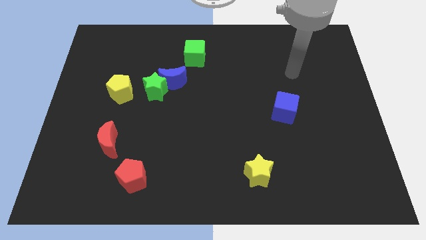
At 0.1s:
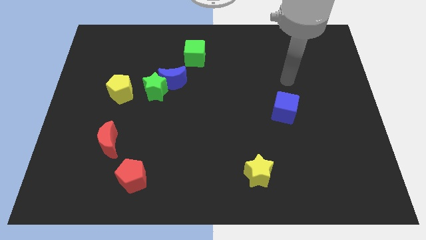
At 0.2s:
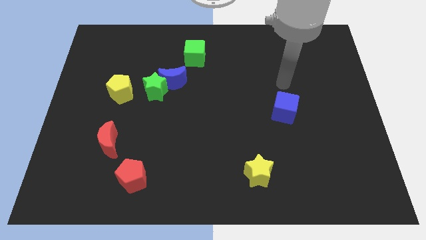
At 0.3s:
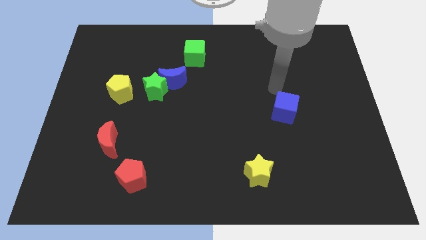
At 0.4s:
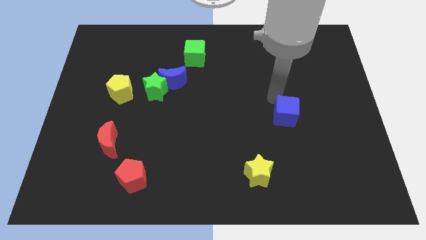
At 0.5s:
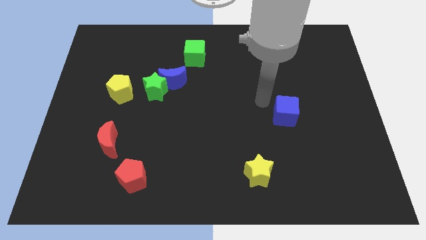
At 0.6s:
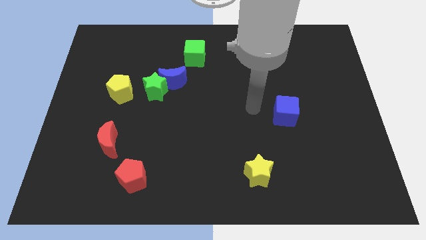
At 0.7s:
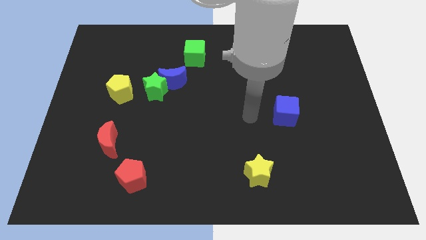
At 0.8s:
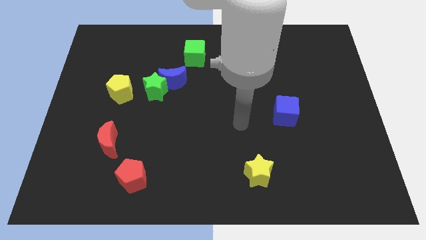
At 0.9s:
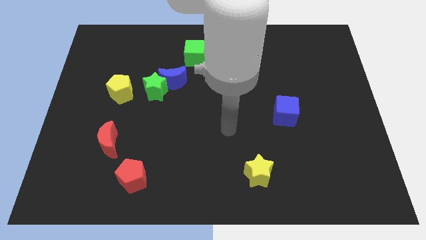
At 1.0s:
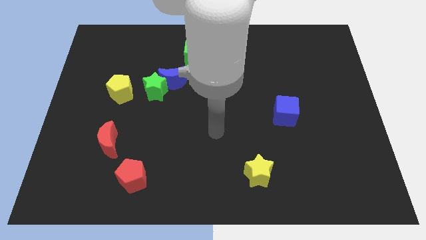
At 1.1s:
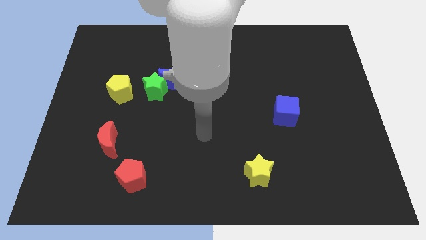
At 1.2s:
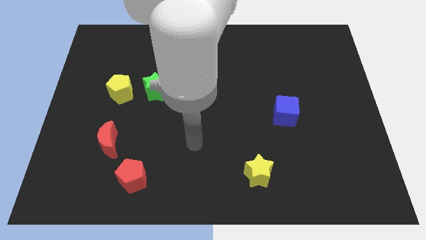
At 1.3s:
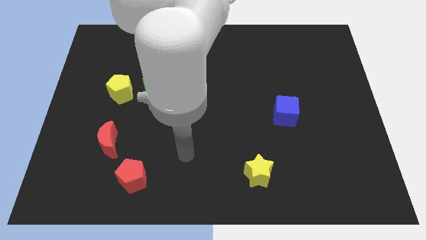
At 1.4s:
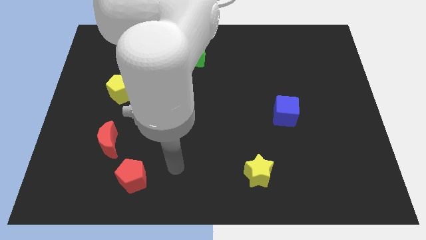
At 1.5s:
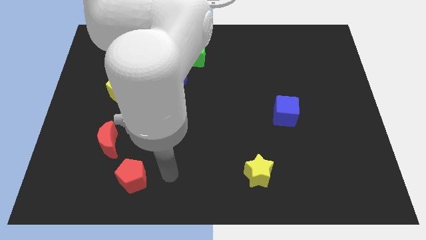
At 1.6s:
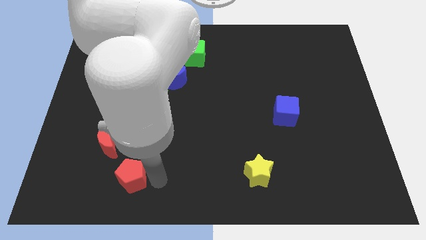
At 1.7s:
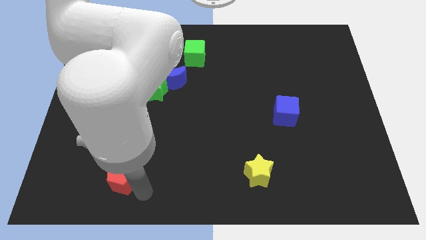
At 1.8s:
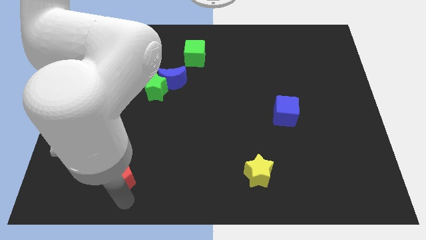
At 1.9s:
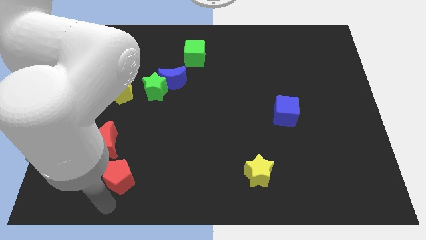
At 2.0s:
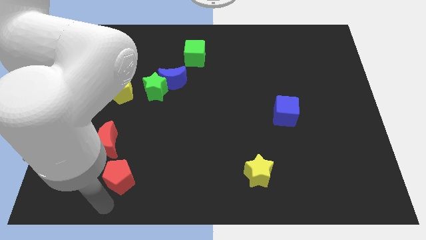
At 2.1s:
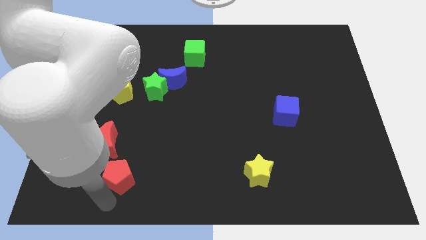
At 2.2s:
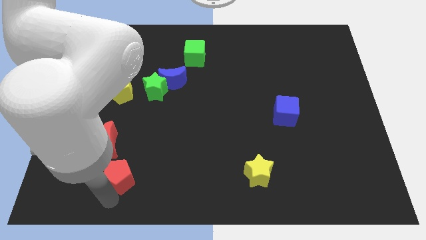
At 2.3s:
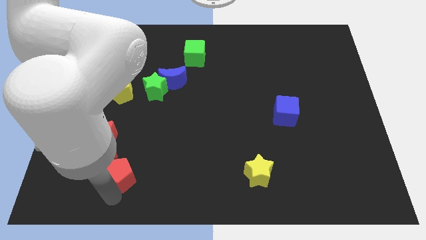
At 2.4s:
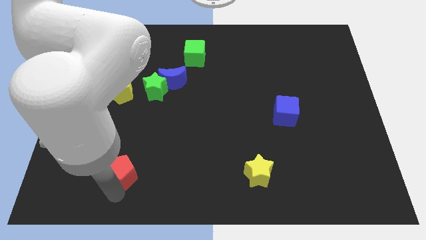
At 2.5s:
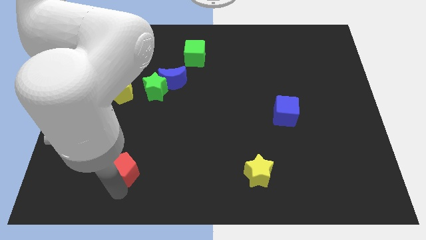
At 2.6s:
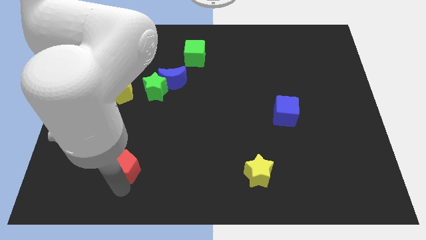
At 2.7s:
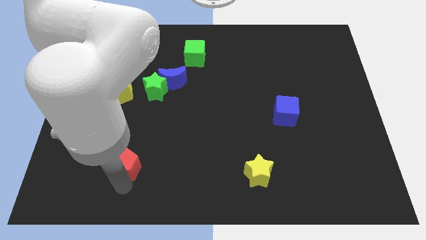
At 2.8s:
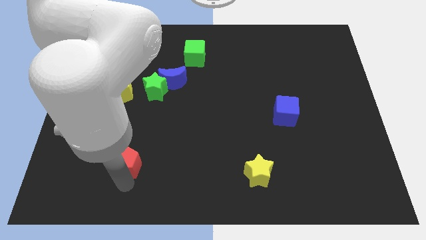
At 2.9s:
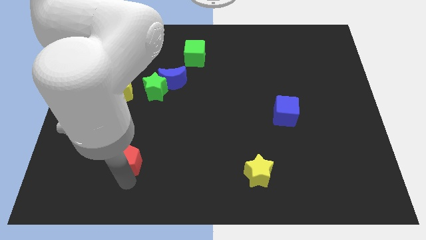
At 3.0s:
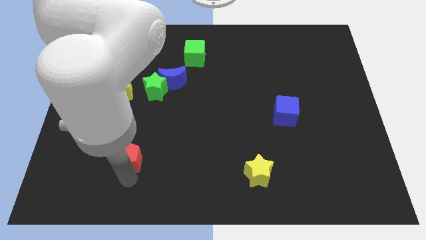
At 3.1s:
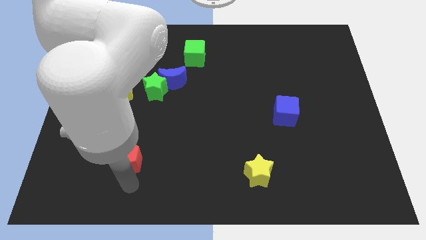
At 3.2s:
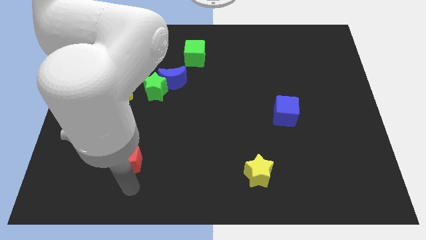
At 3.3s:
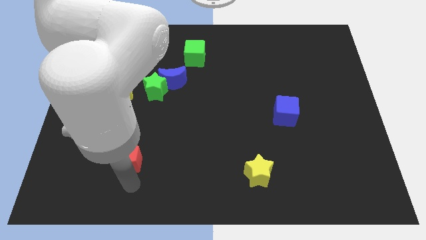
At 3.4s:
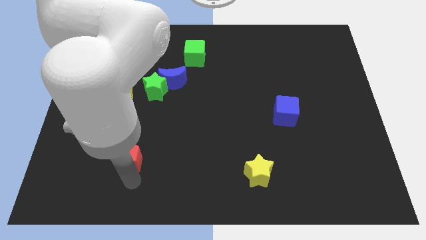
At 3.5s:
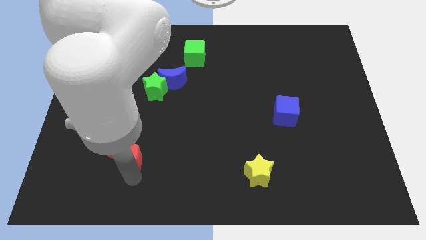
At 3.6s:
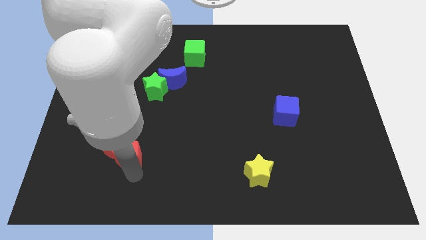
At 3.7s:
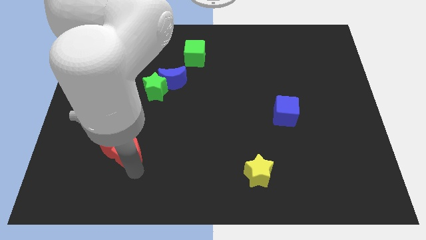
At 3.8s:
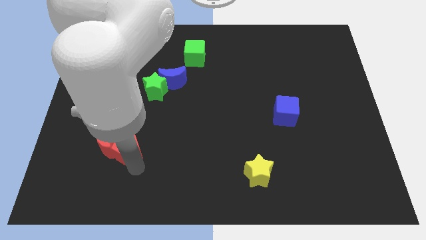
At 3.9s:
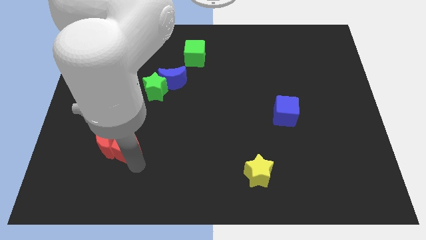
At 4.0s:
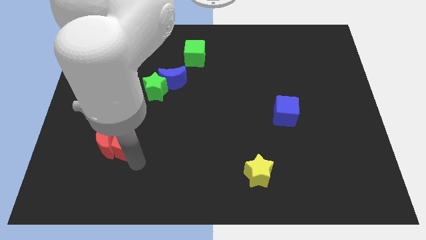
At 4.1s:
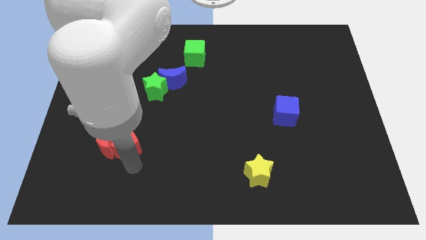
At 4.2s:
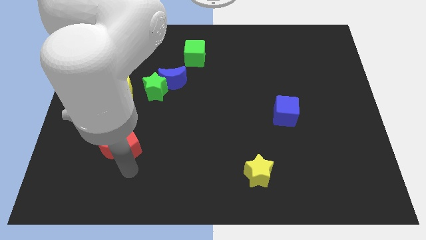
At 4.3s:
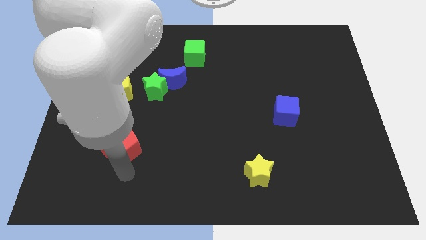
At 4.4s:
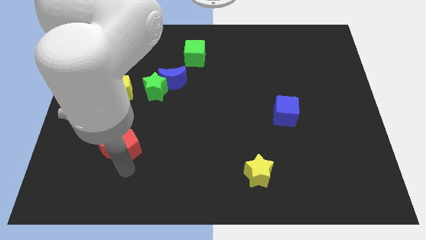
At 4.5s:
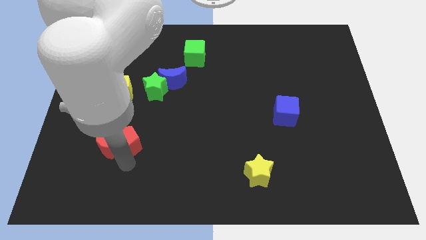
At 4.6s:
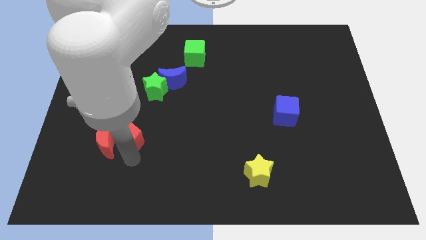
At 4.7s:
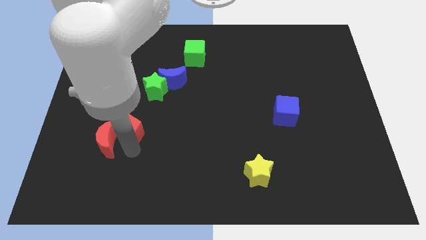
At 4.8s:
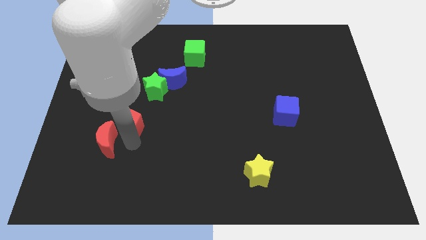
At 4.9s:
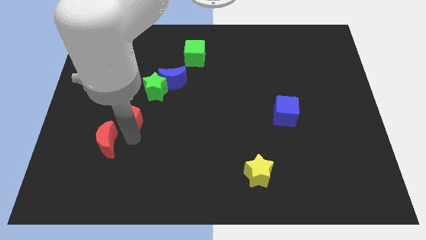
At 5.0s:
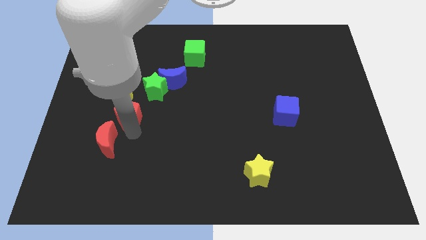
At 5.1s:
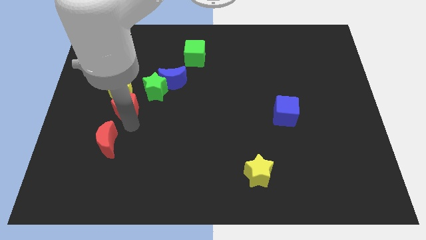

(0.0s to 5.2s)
put the red pentagon next to the yellow pentagon

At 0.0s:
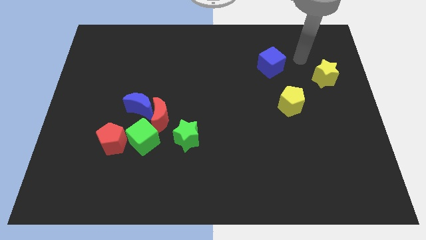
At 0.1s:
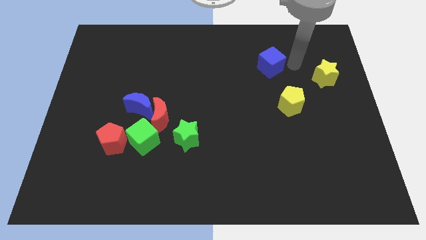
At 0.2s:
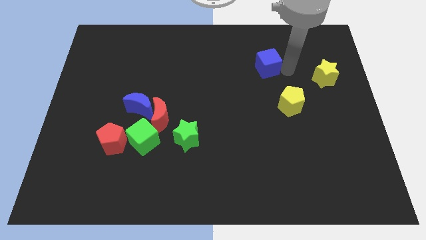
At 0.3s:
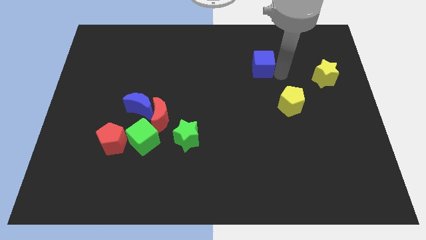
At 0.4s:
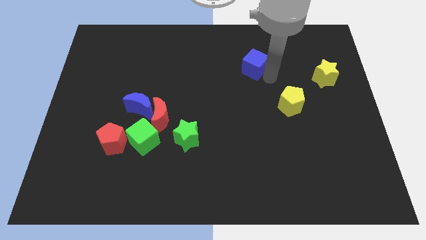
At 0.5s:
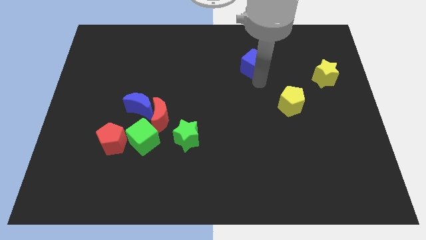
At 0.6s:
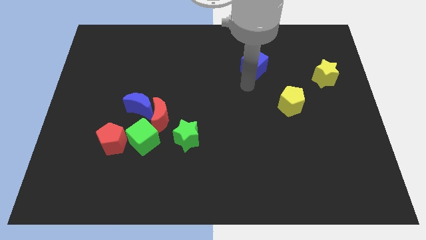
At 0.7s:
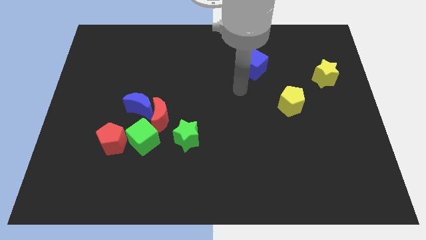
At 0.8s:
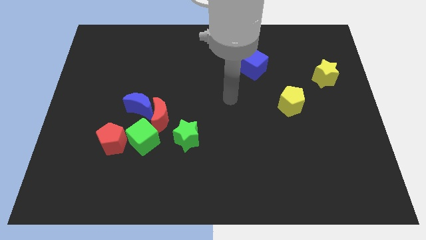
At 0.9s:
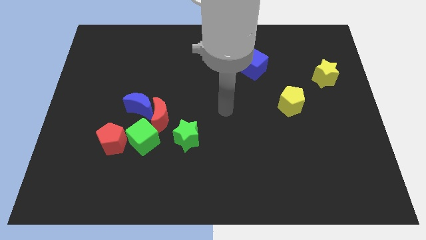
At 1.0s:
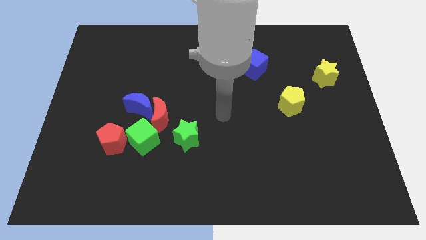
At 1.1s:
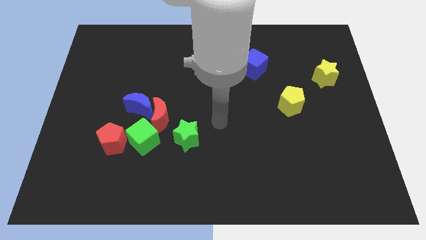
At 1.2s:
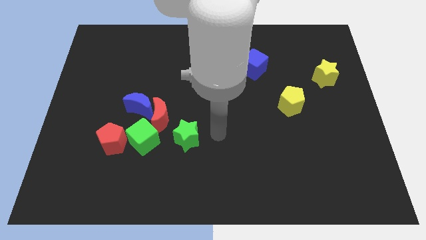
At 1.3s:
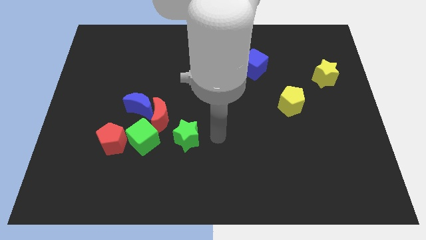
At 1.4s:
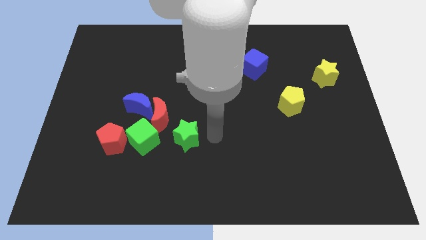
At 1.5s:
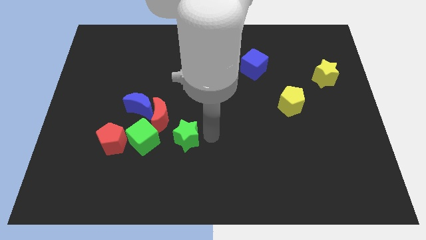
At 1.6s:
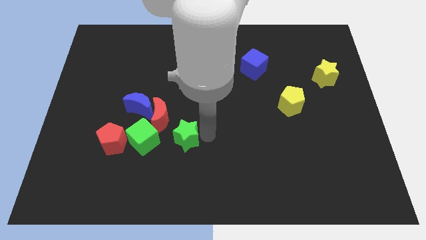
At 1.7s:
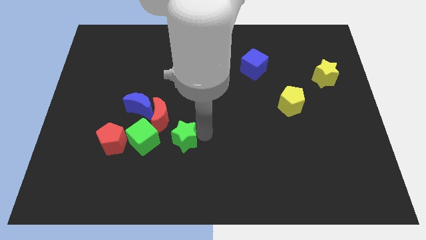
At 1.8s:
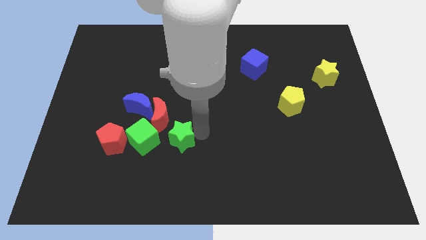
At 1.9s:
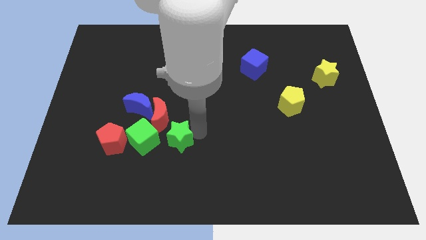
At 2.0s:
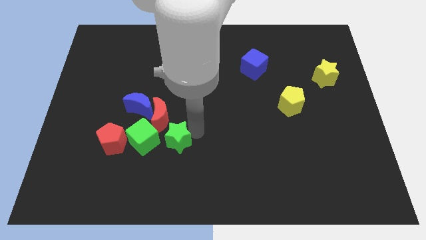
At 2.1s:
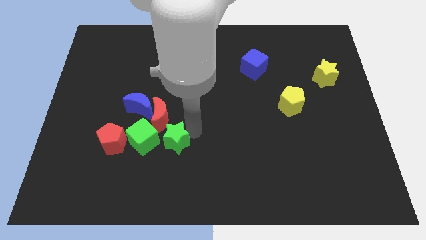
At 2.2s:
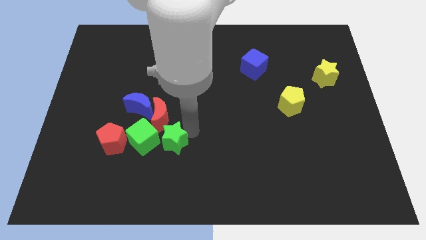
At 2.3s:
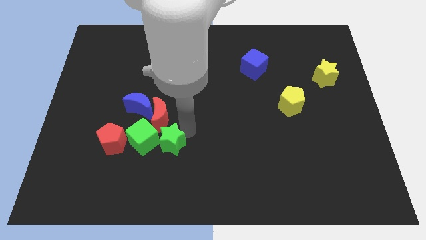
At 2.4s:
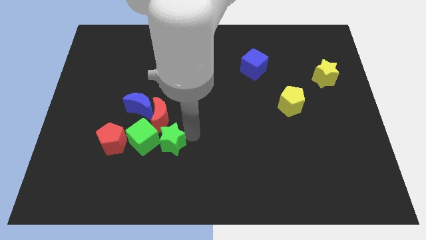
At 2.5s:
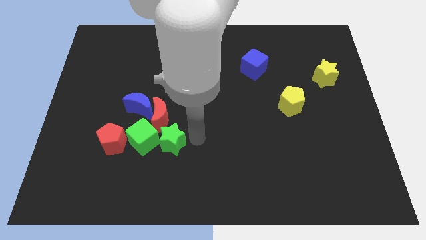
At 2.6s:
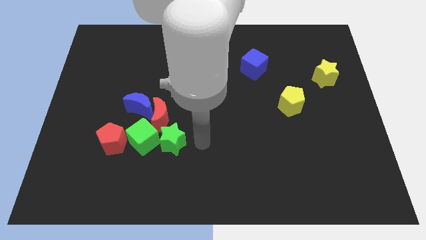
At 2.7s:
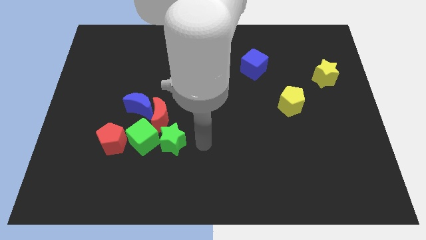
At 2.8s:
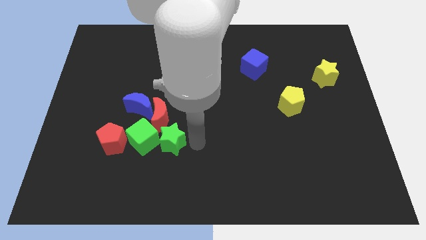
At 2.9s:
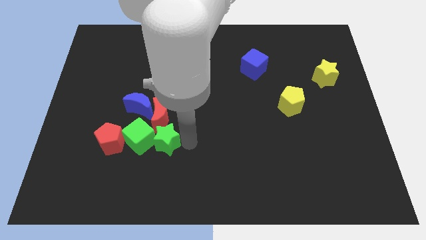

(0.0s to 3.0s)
push the green star towards the green cube
